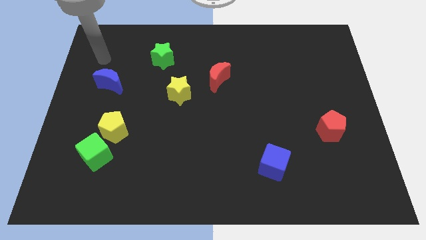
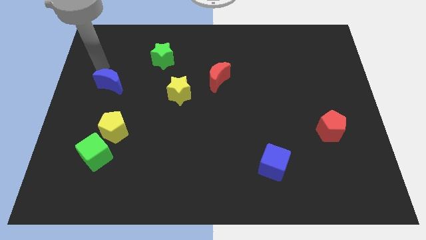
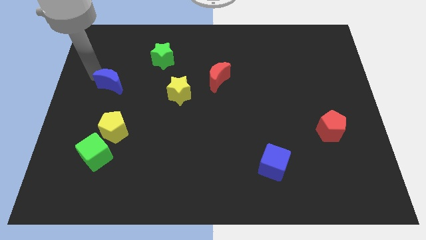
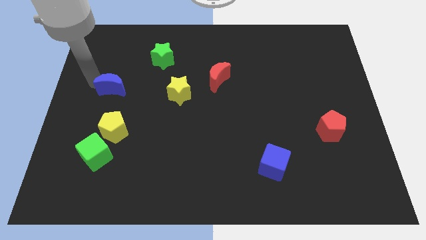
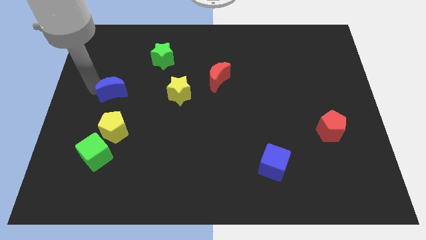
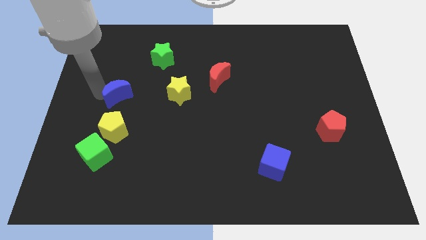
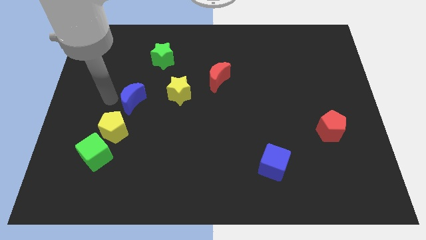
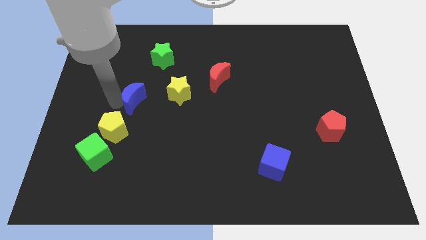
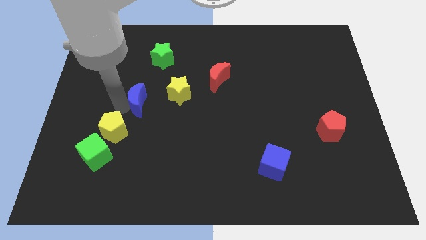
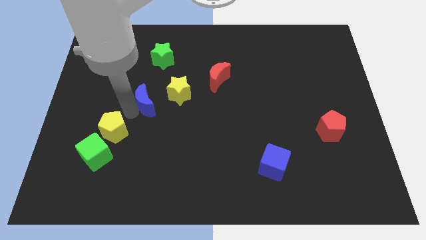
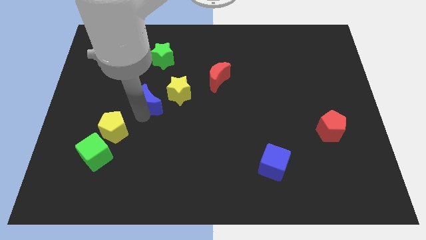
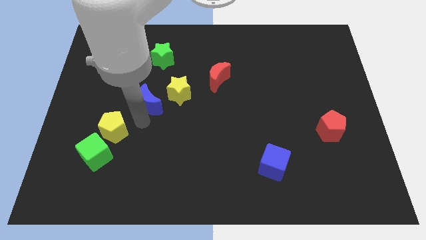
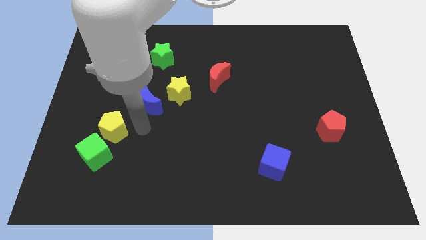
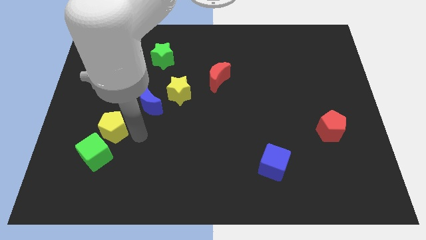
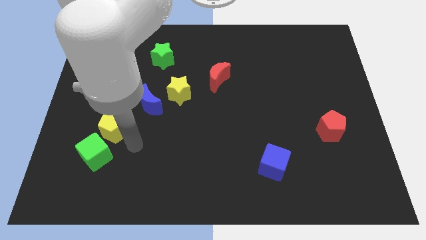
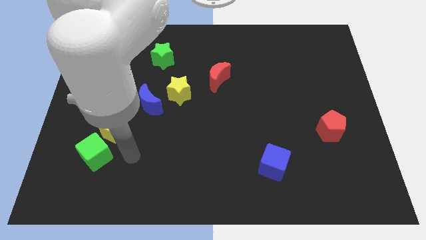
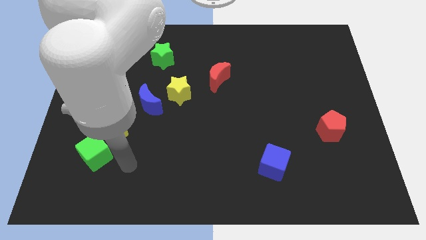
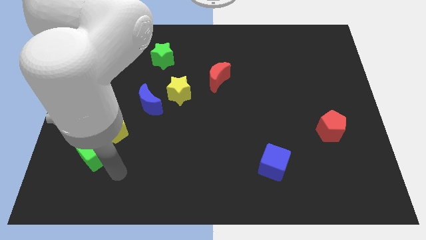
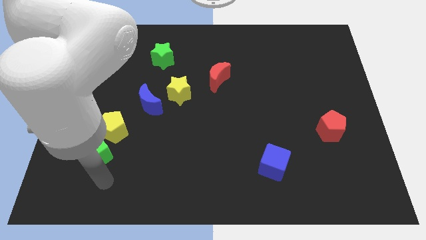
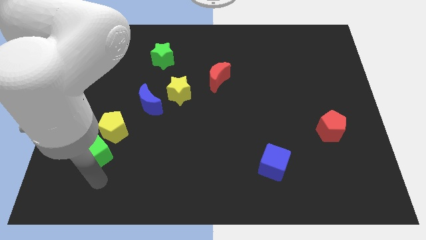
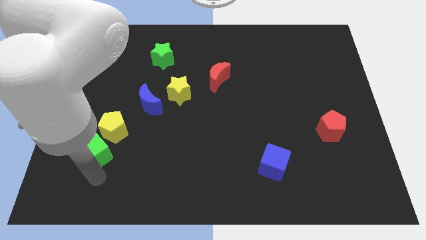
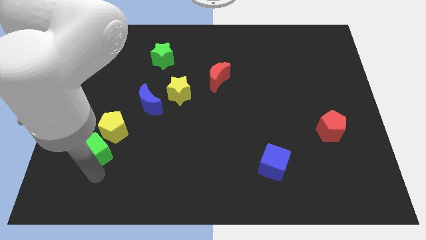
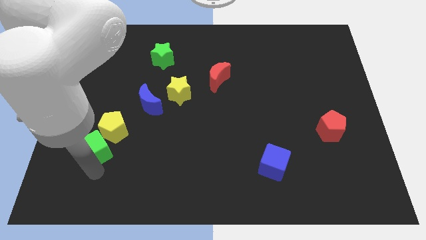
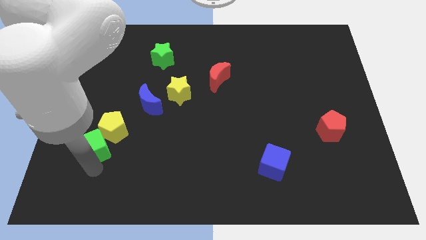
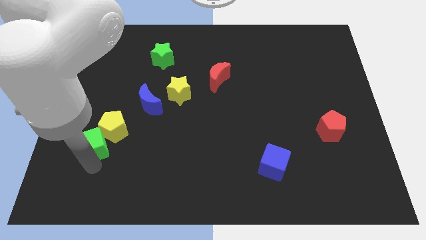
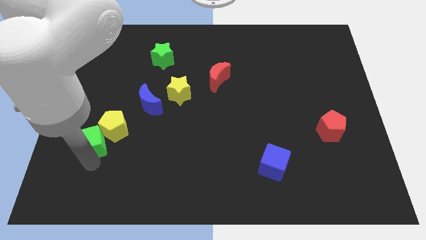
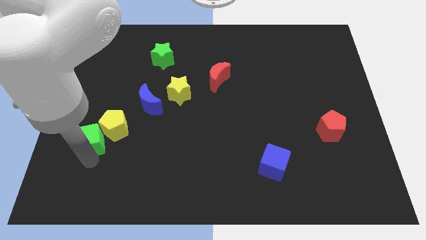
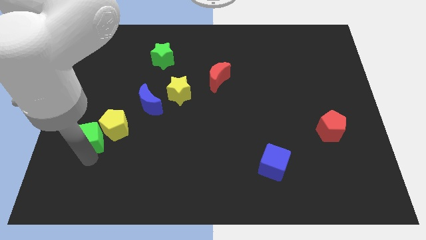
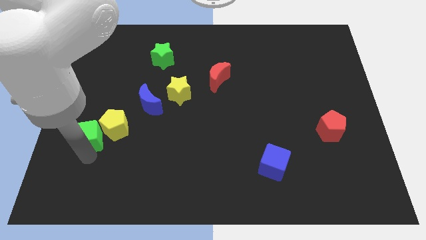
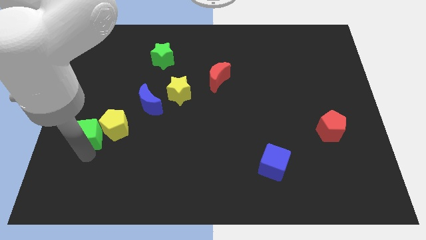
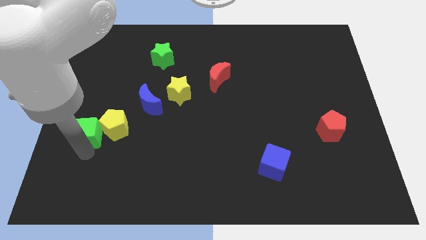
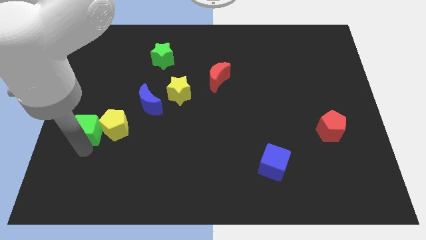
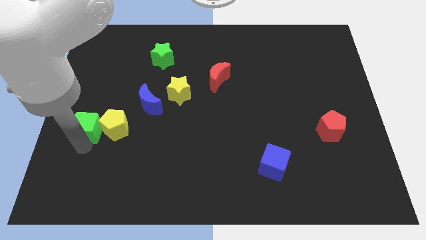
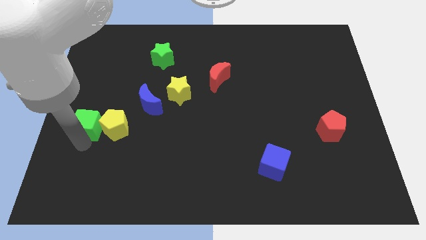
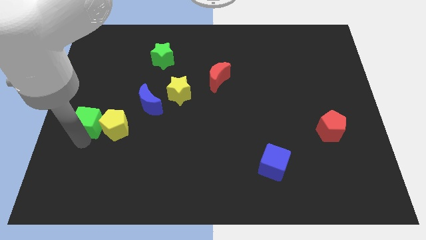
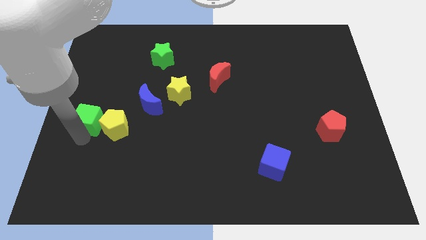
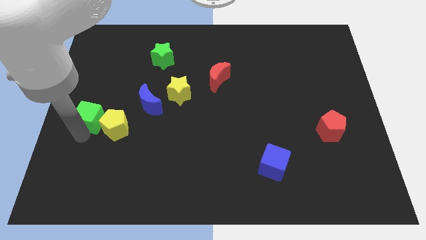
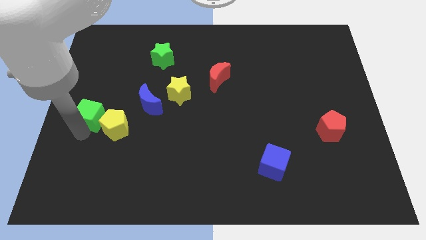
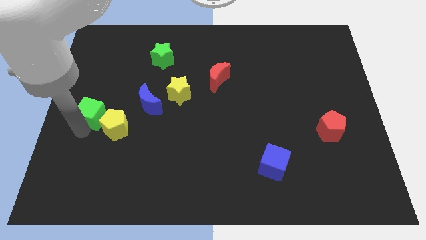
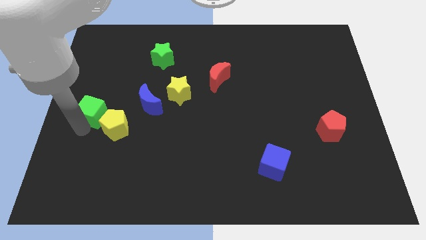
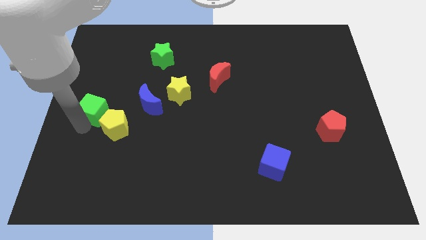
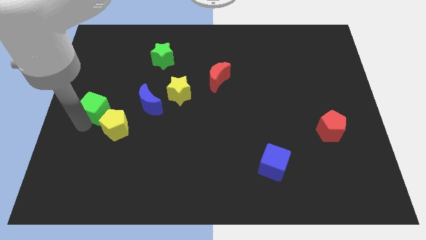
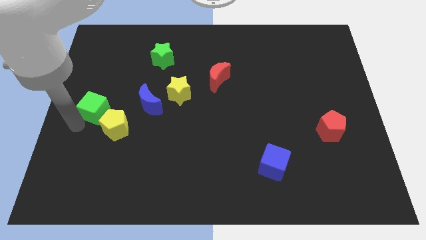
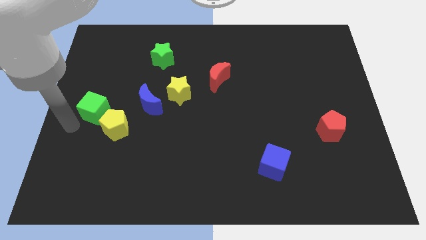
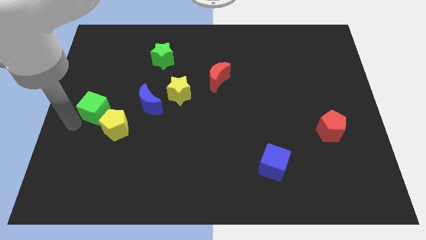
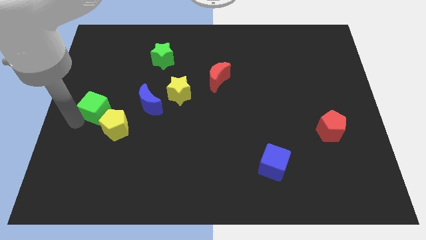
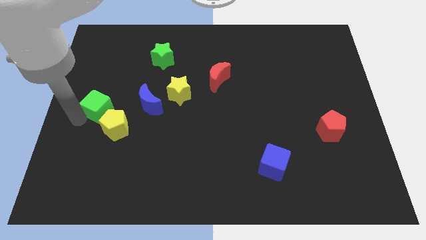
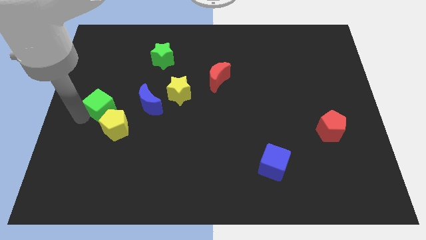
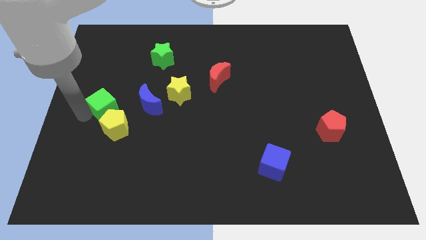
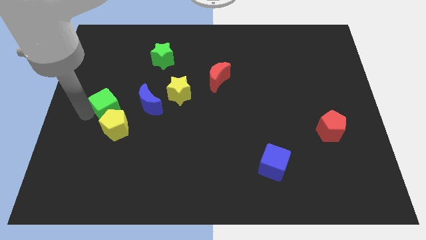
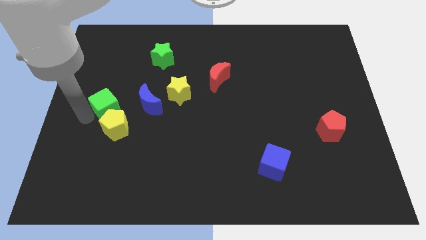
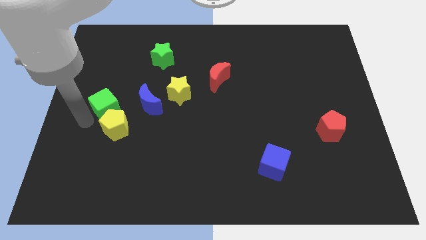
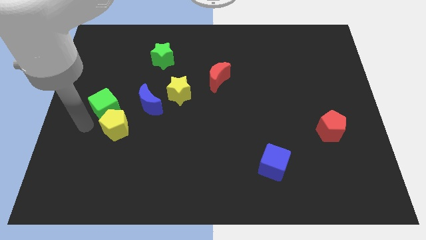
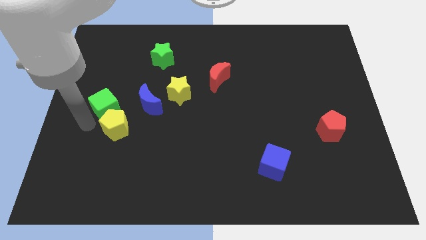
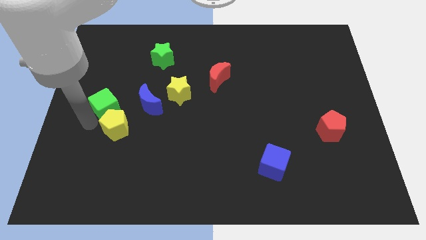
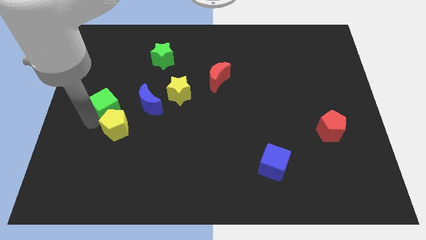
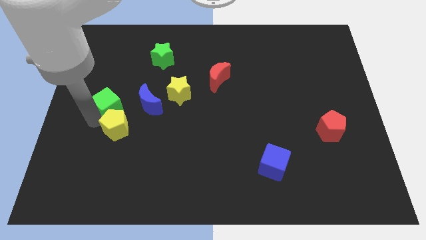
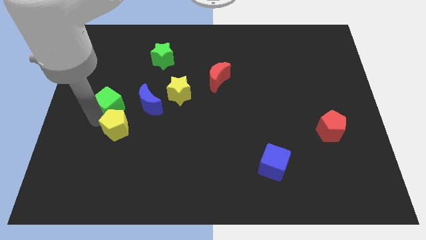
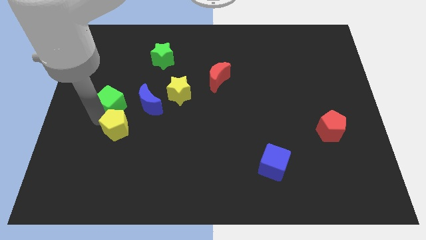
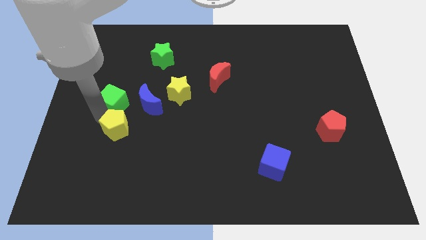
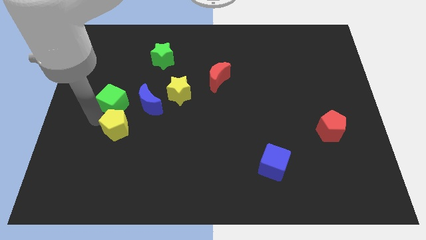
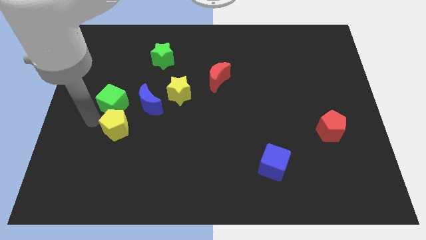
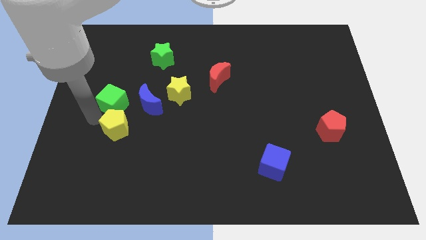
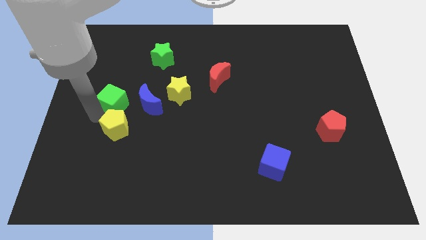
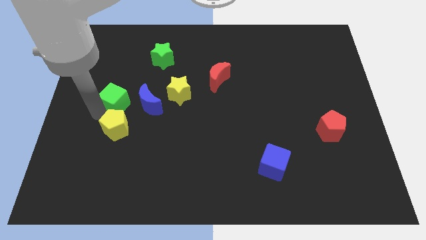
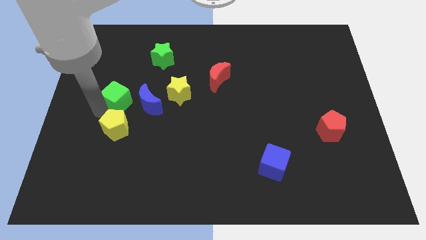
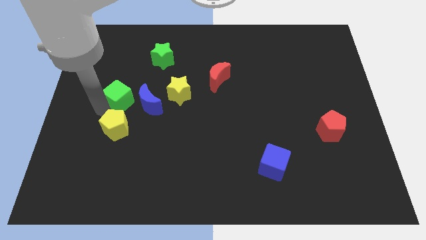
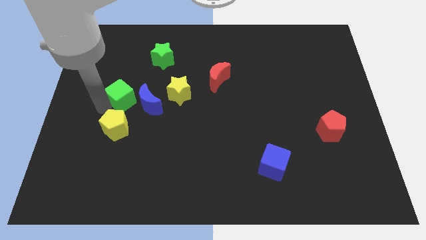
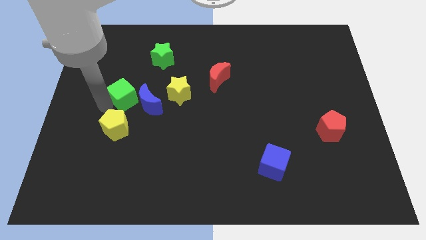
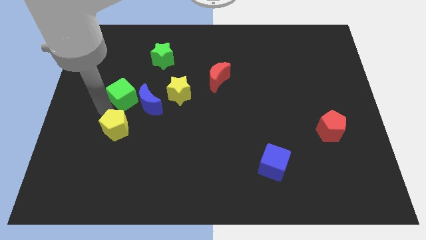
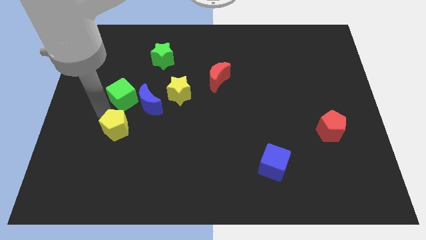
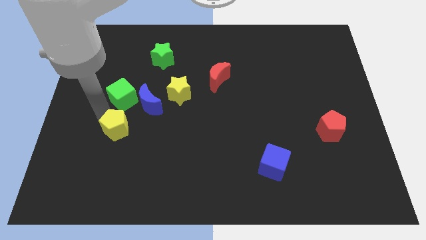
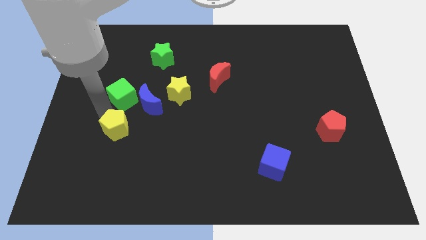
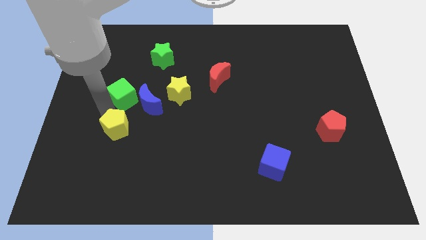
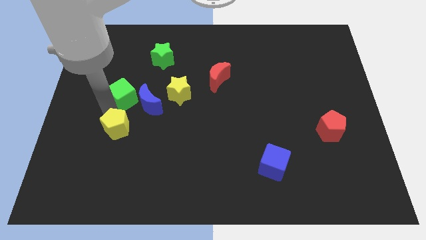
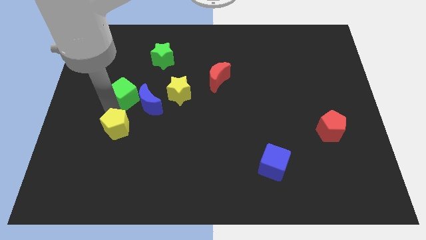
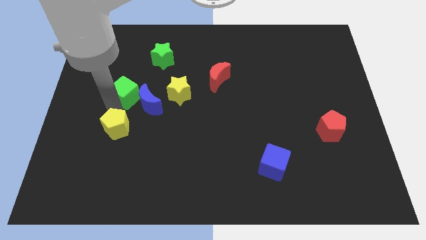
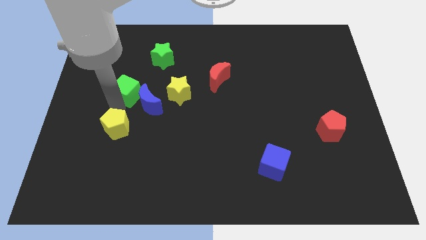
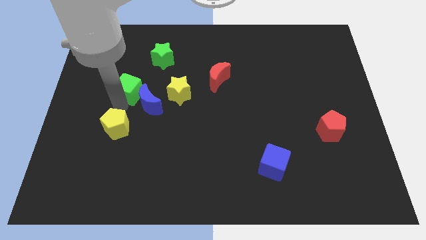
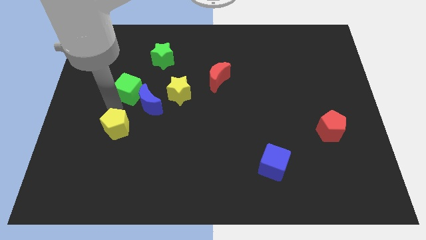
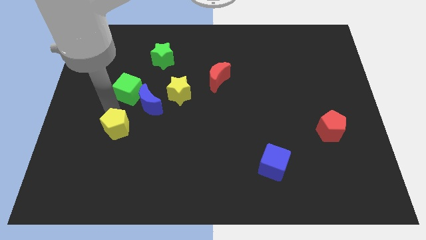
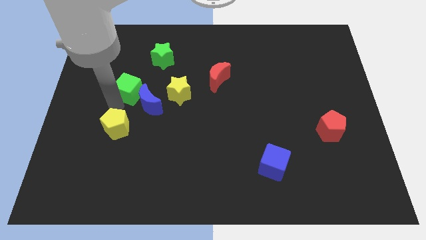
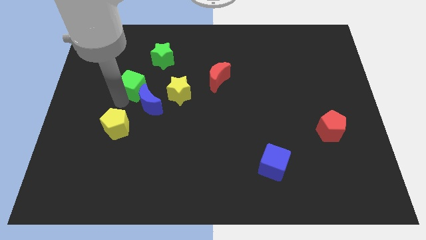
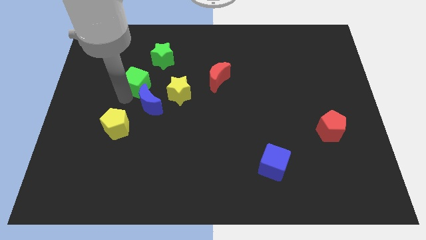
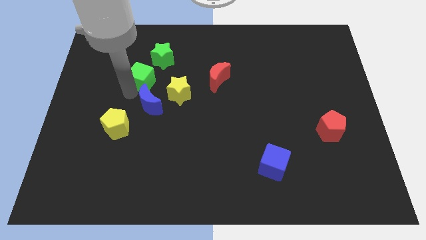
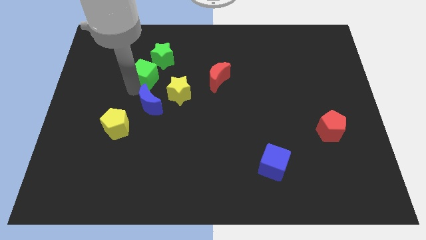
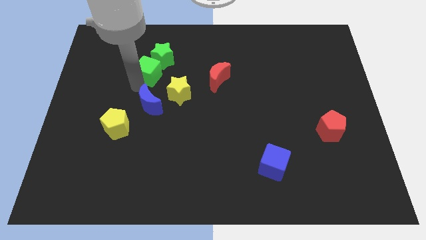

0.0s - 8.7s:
move the green cube towards the green star
